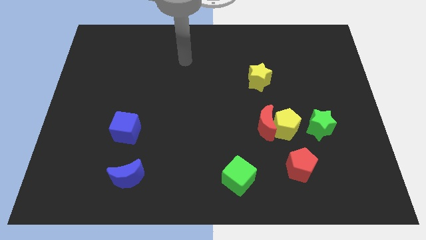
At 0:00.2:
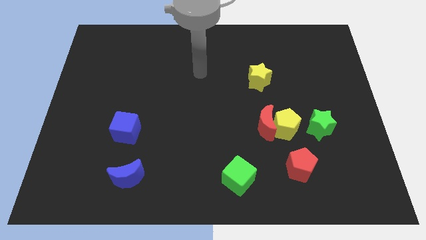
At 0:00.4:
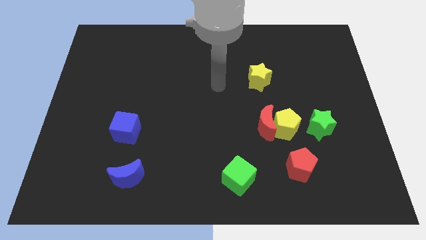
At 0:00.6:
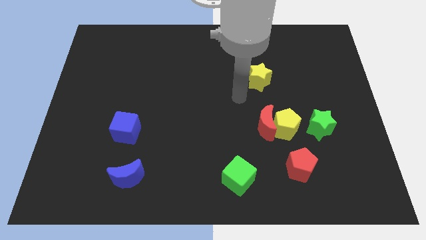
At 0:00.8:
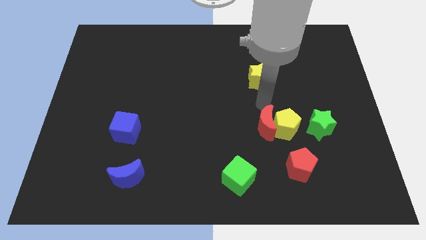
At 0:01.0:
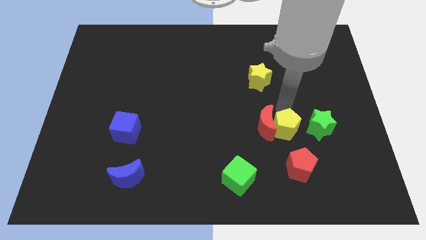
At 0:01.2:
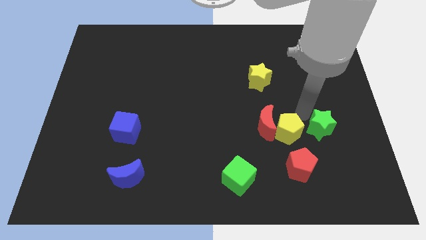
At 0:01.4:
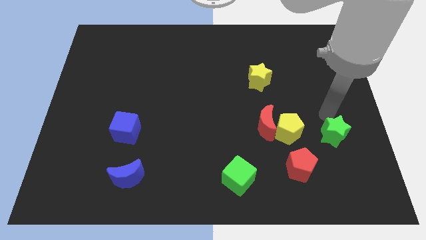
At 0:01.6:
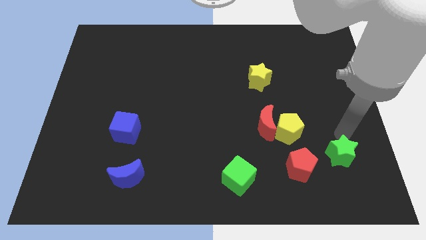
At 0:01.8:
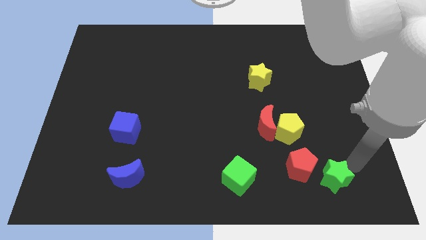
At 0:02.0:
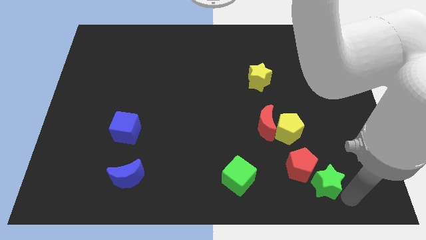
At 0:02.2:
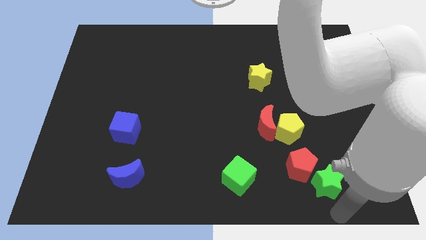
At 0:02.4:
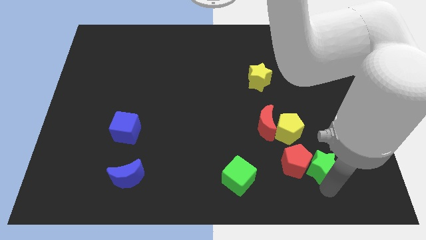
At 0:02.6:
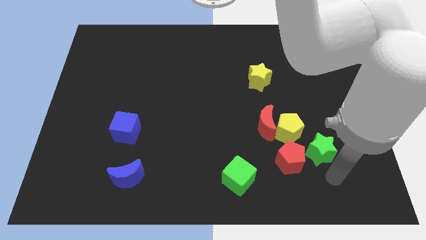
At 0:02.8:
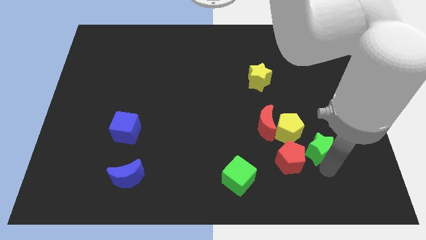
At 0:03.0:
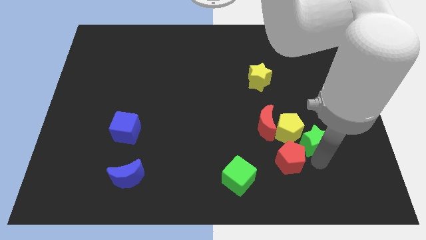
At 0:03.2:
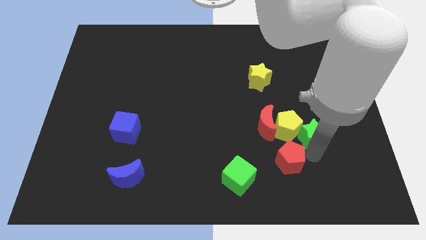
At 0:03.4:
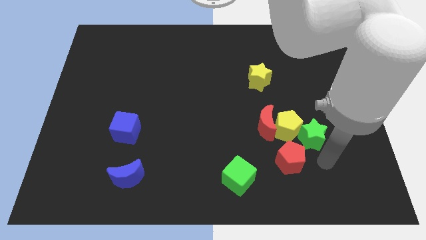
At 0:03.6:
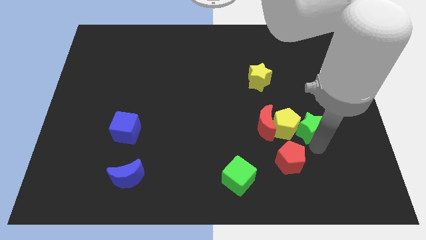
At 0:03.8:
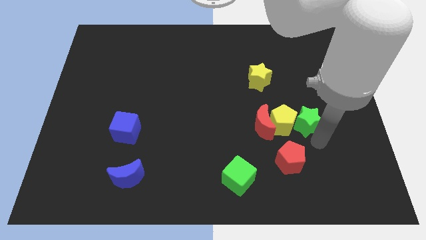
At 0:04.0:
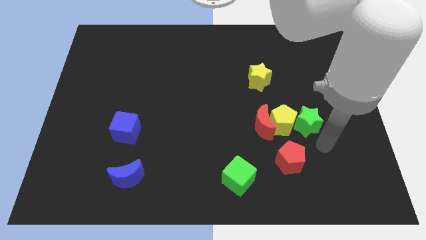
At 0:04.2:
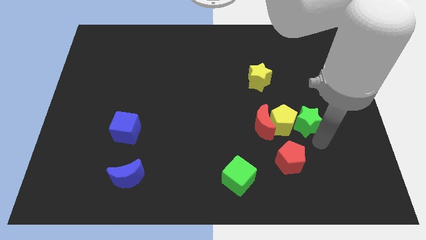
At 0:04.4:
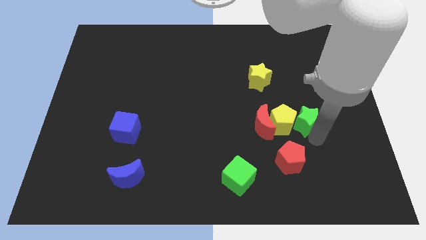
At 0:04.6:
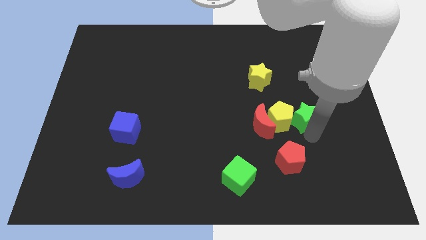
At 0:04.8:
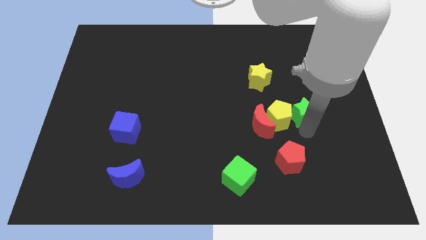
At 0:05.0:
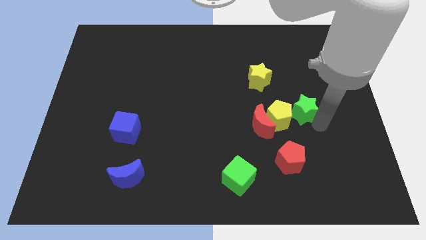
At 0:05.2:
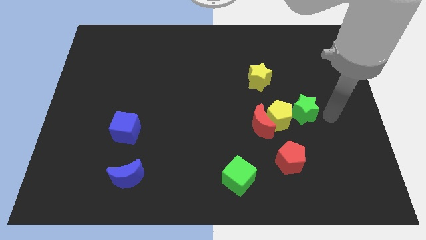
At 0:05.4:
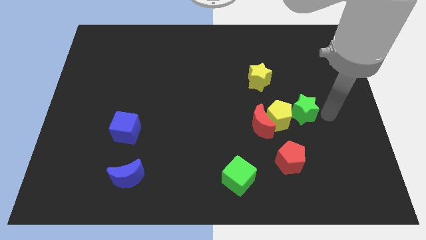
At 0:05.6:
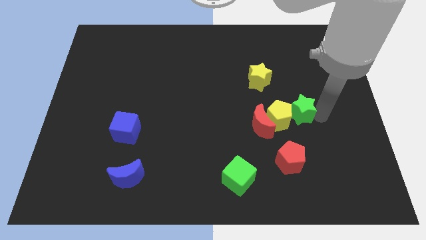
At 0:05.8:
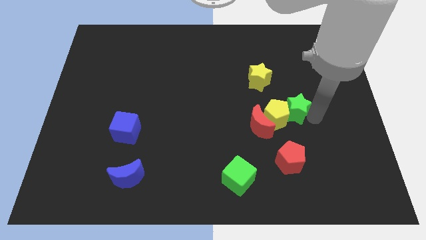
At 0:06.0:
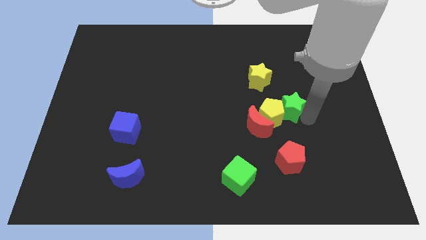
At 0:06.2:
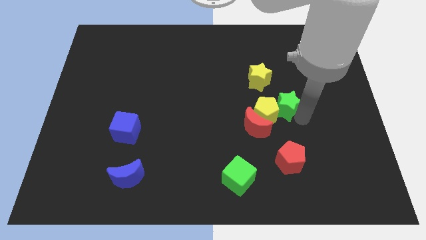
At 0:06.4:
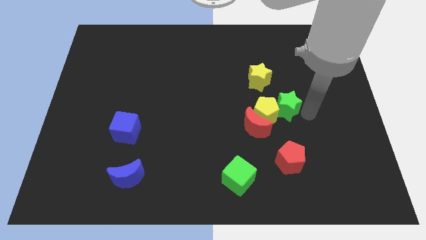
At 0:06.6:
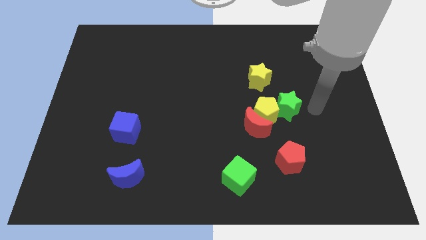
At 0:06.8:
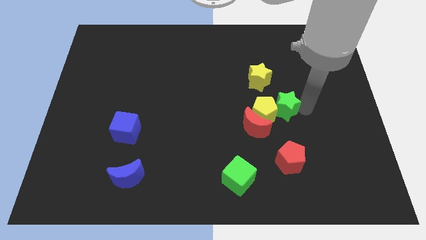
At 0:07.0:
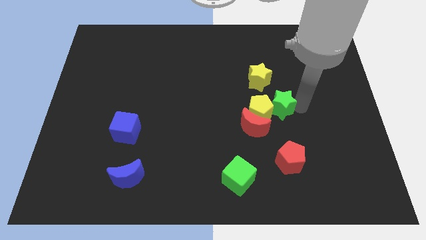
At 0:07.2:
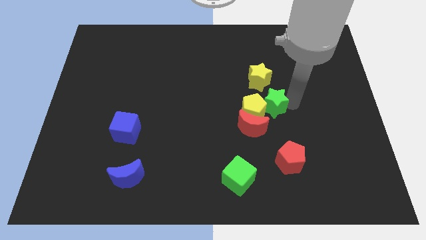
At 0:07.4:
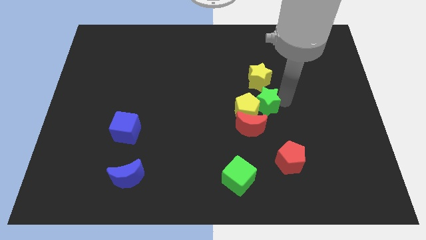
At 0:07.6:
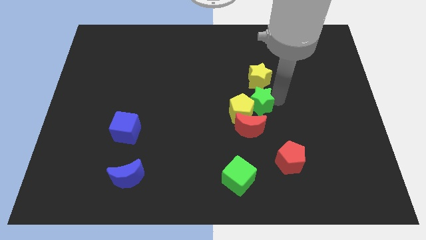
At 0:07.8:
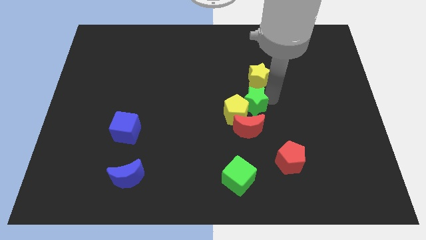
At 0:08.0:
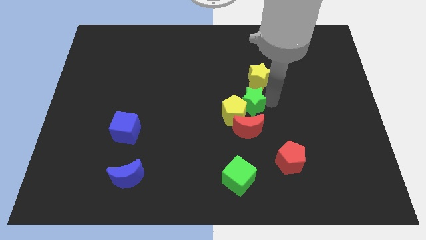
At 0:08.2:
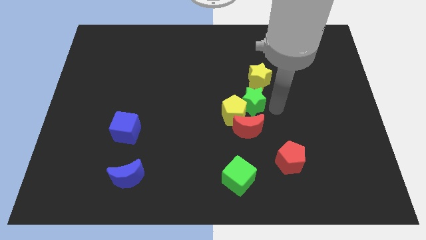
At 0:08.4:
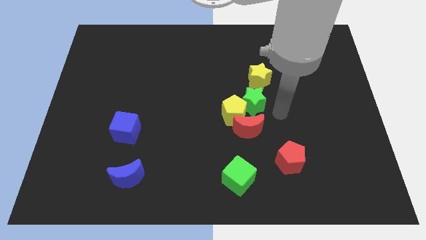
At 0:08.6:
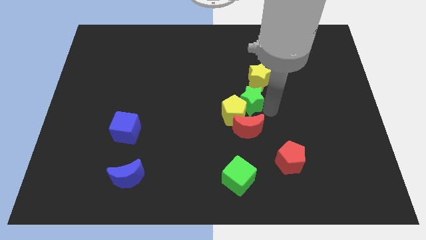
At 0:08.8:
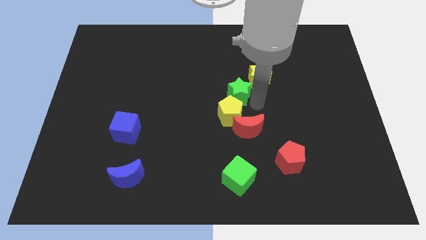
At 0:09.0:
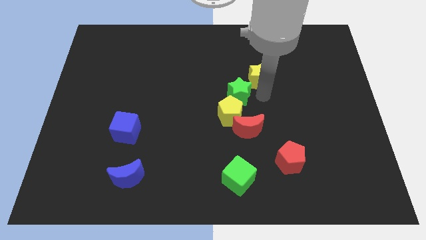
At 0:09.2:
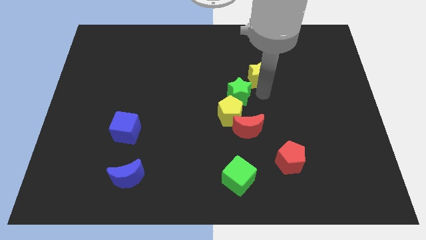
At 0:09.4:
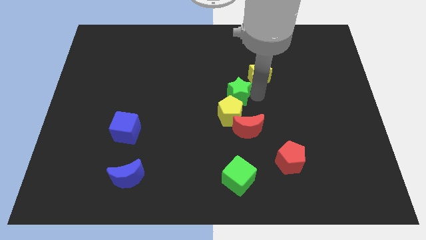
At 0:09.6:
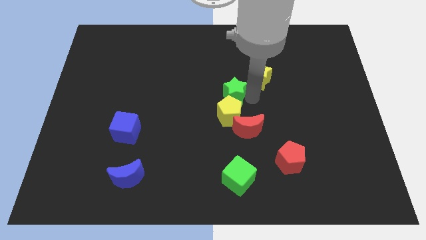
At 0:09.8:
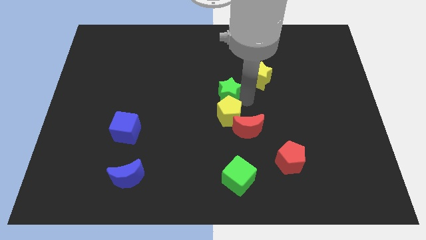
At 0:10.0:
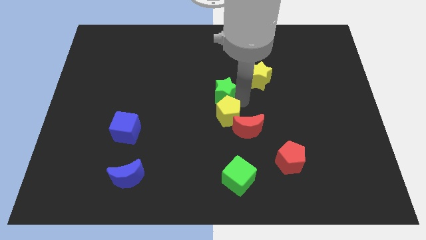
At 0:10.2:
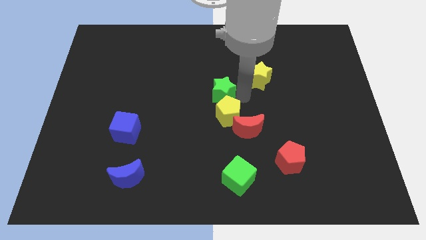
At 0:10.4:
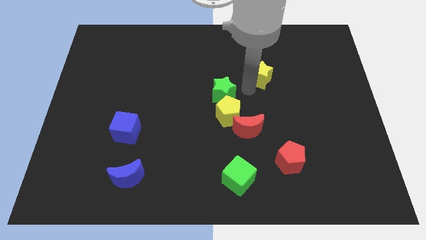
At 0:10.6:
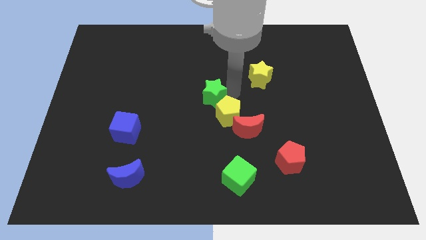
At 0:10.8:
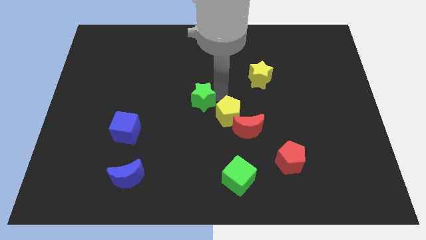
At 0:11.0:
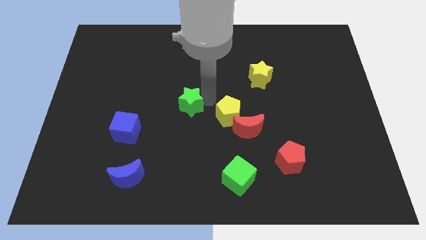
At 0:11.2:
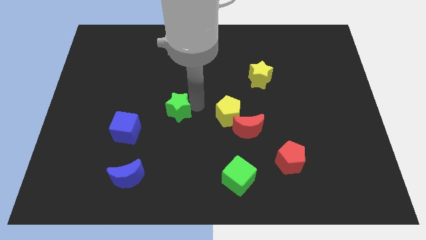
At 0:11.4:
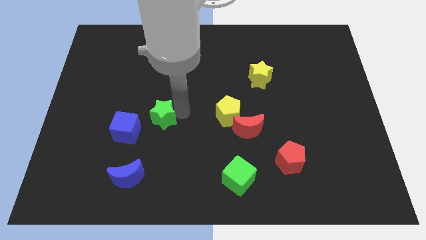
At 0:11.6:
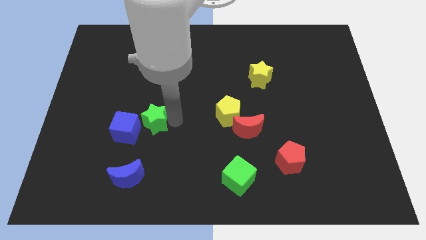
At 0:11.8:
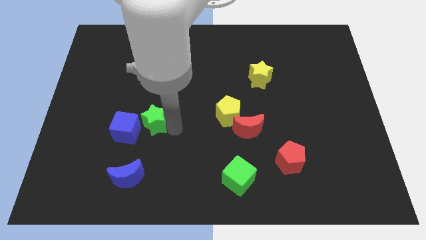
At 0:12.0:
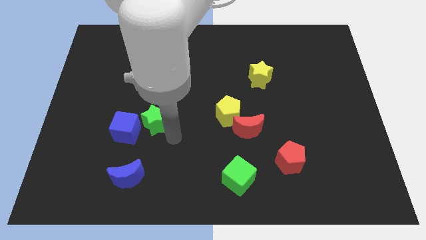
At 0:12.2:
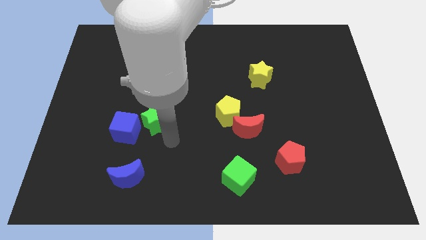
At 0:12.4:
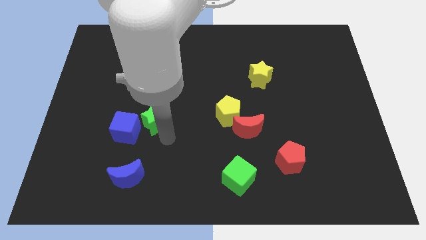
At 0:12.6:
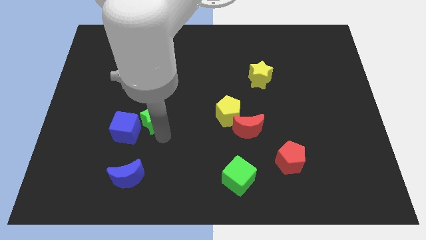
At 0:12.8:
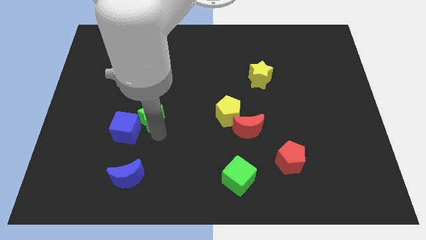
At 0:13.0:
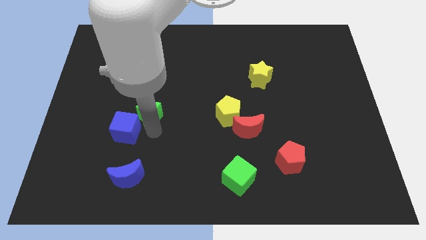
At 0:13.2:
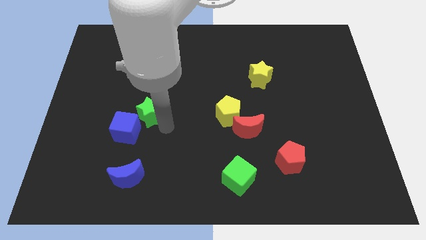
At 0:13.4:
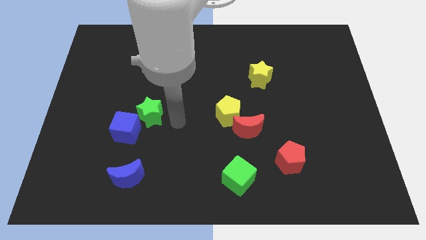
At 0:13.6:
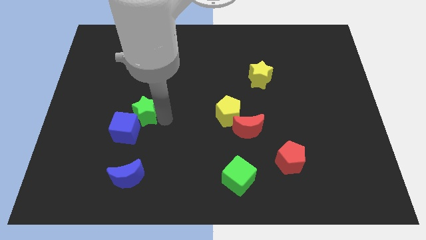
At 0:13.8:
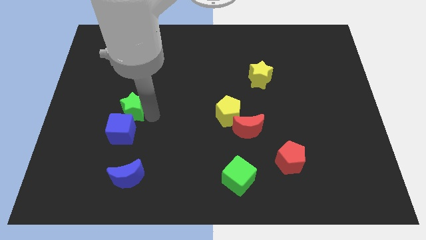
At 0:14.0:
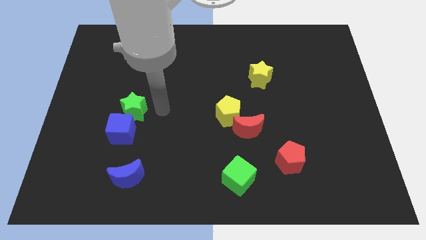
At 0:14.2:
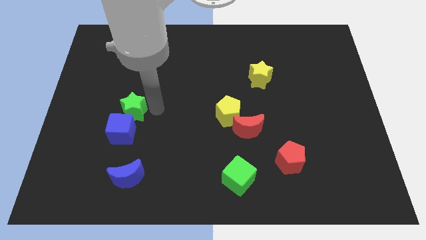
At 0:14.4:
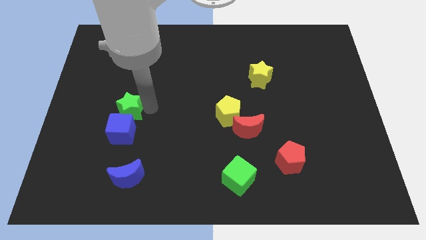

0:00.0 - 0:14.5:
move the green star to the top left side of the blue cube

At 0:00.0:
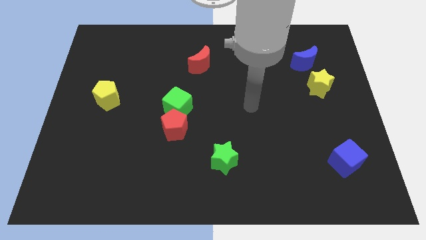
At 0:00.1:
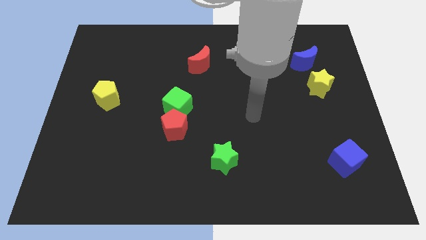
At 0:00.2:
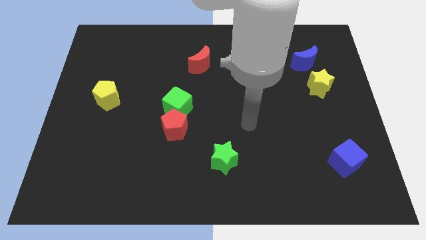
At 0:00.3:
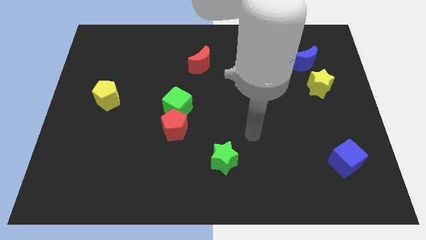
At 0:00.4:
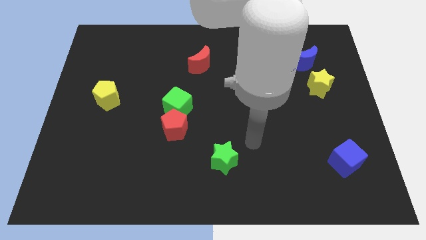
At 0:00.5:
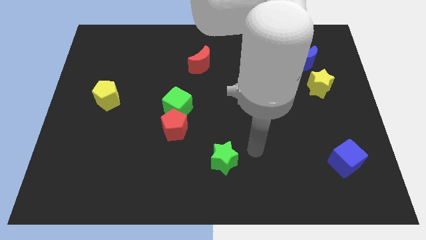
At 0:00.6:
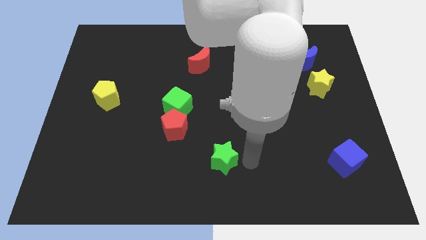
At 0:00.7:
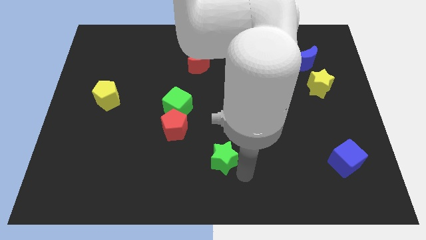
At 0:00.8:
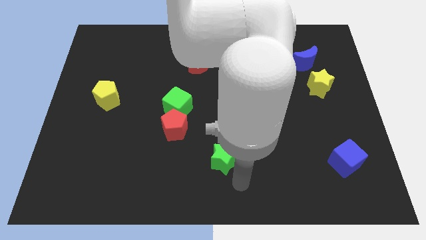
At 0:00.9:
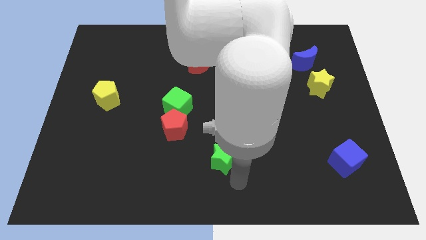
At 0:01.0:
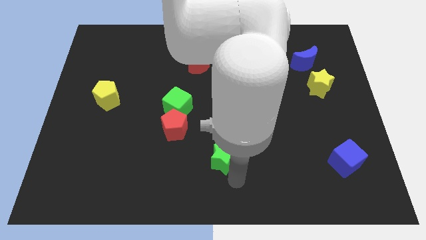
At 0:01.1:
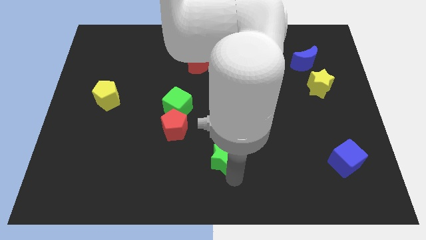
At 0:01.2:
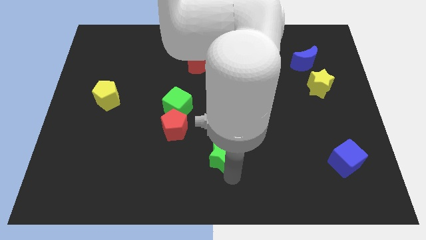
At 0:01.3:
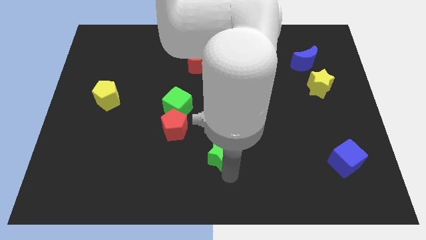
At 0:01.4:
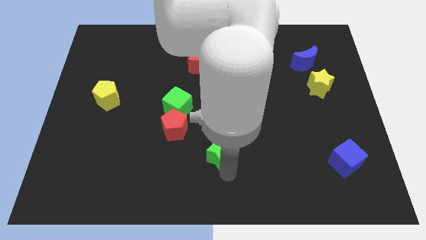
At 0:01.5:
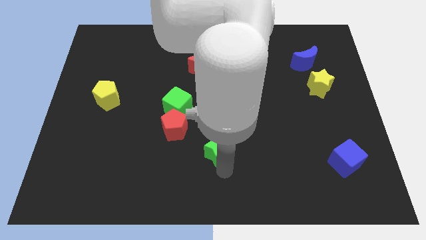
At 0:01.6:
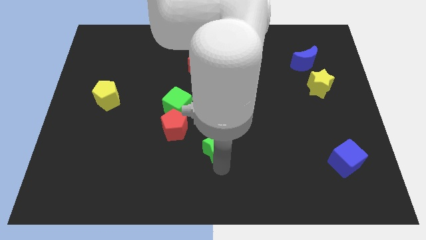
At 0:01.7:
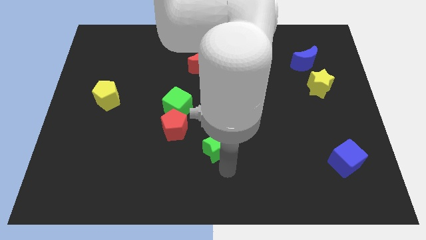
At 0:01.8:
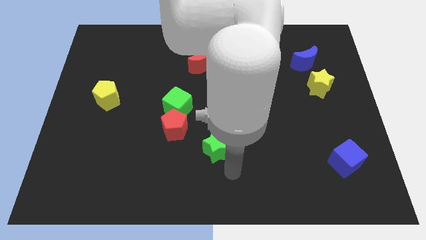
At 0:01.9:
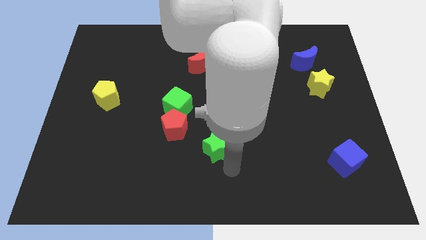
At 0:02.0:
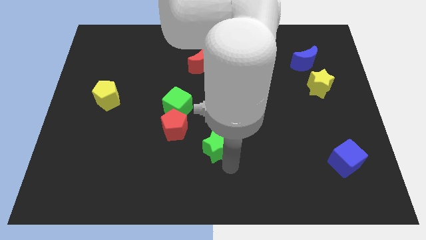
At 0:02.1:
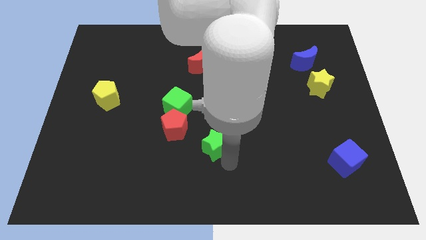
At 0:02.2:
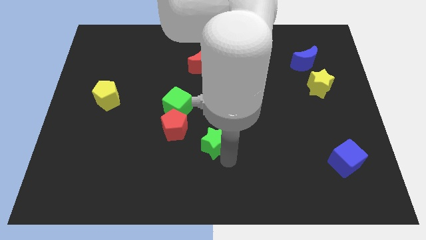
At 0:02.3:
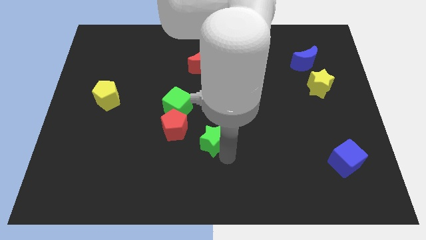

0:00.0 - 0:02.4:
slide the green star diagonally down and to the right of the green cube
